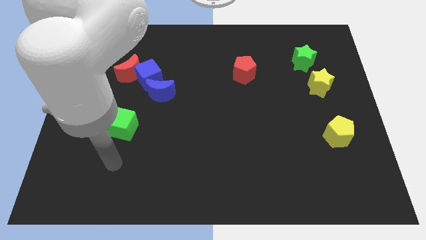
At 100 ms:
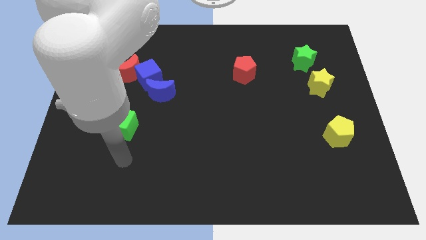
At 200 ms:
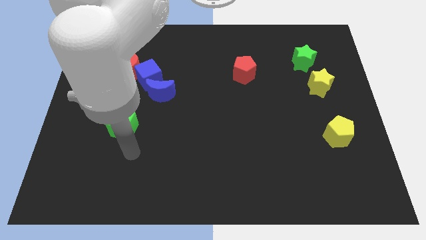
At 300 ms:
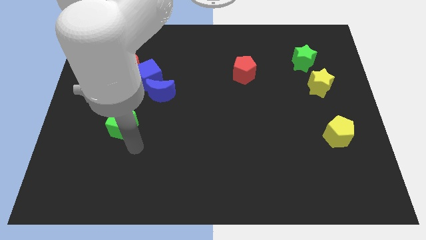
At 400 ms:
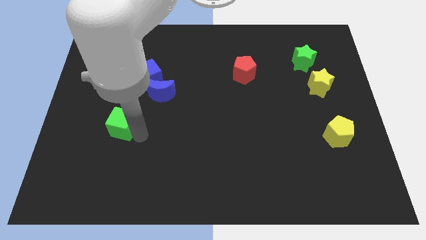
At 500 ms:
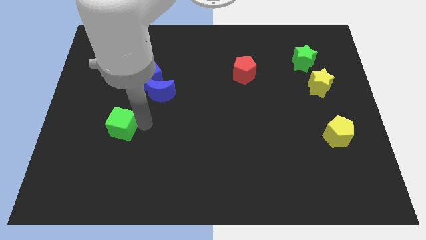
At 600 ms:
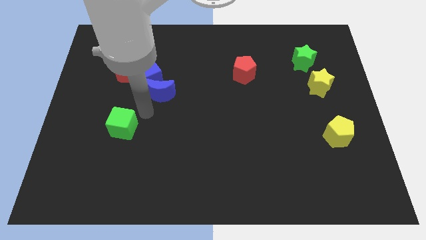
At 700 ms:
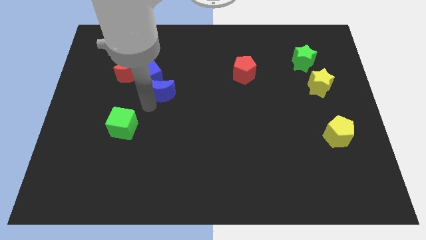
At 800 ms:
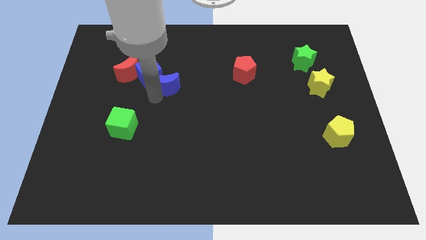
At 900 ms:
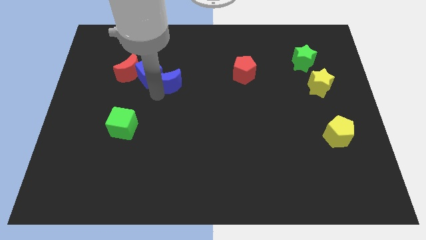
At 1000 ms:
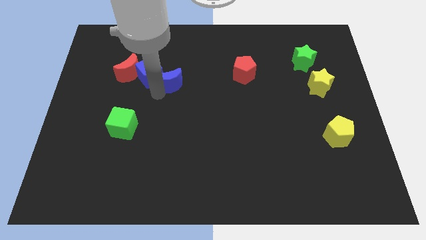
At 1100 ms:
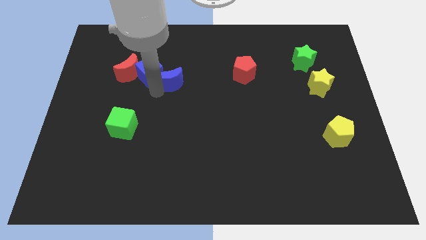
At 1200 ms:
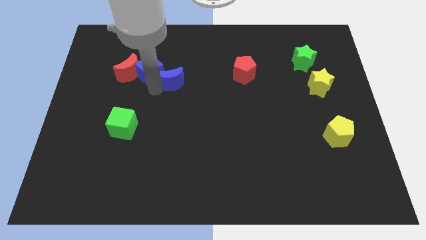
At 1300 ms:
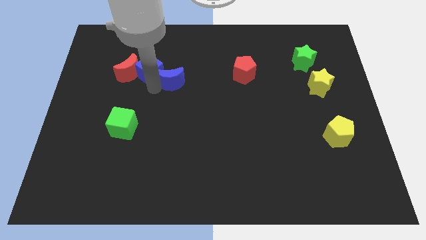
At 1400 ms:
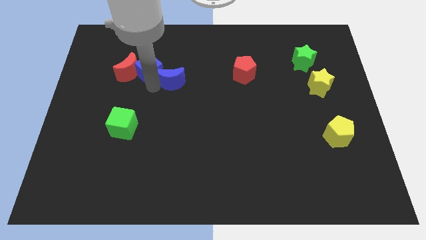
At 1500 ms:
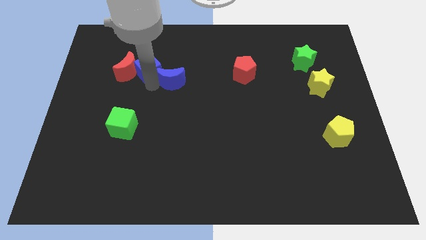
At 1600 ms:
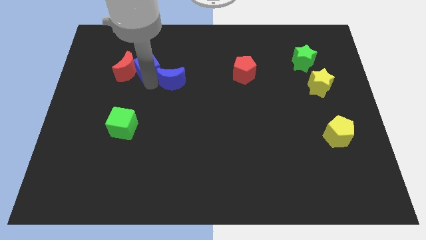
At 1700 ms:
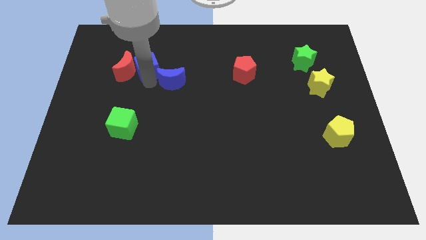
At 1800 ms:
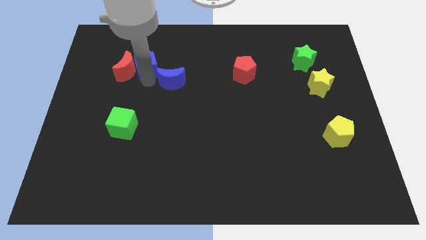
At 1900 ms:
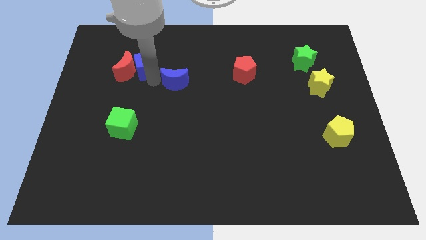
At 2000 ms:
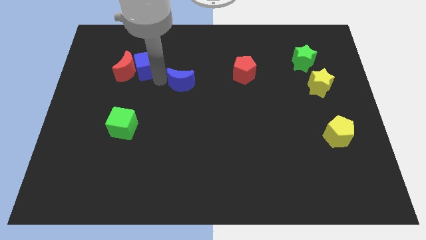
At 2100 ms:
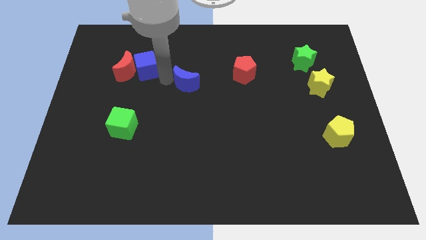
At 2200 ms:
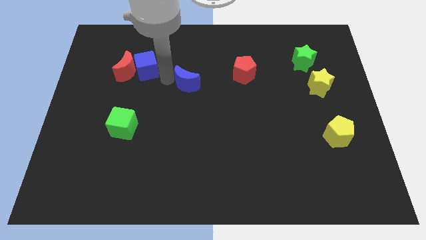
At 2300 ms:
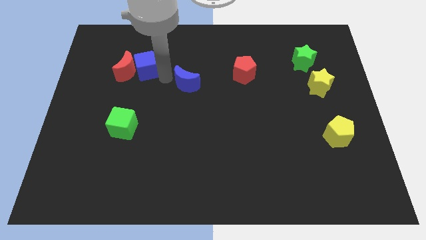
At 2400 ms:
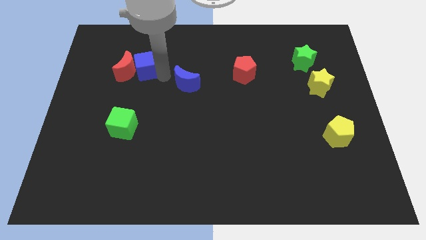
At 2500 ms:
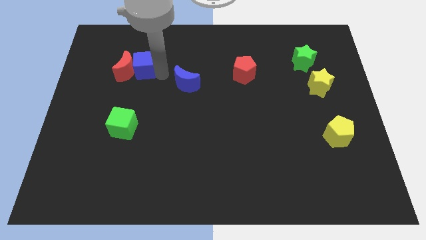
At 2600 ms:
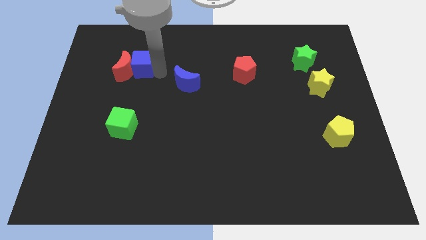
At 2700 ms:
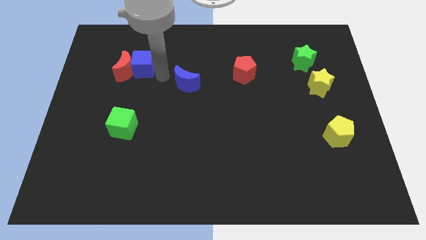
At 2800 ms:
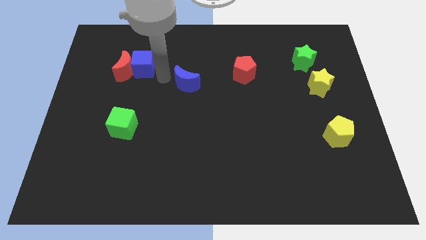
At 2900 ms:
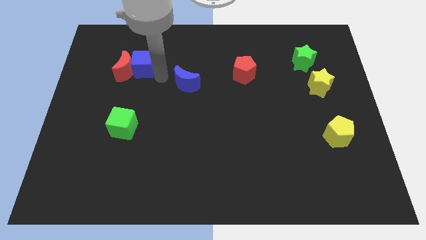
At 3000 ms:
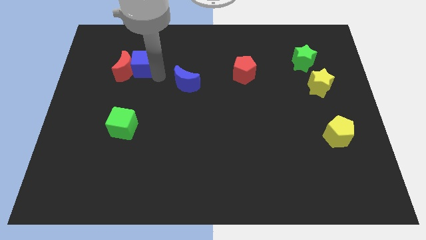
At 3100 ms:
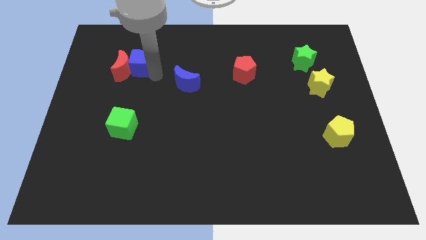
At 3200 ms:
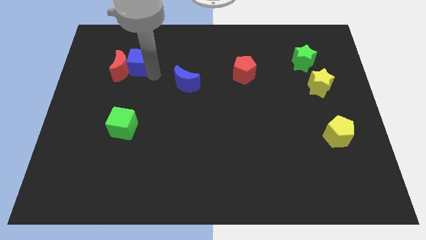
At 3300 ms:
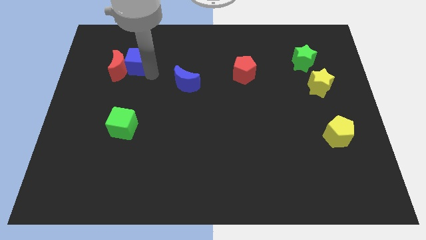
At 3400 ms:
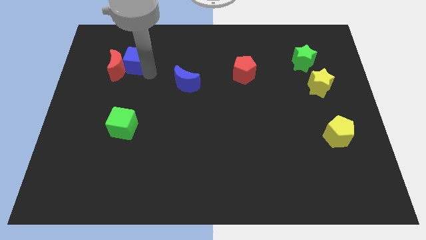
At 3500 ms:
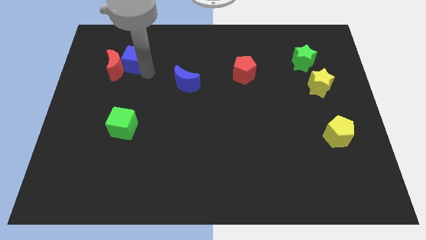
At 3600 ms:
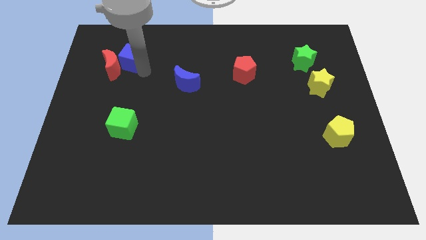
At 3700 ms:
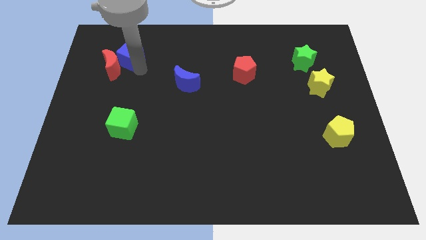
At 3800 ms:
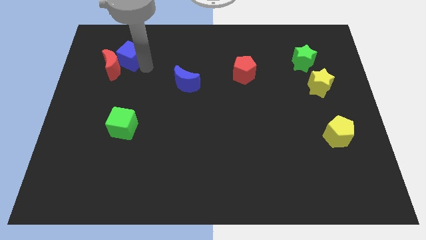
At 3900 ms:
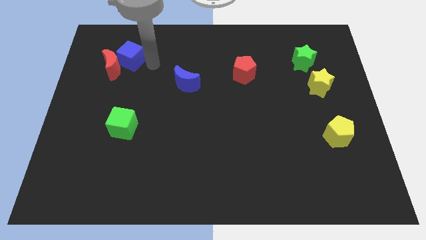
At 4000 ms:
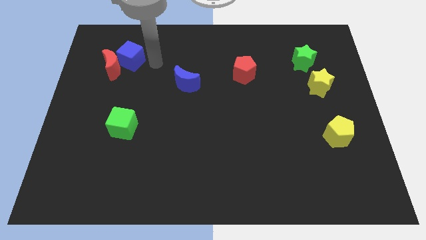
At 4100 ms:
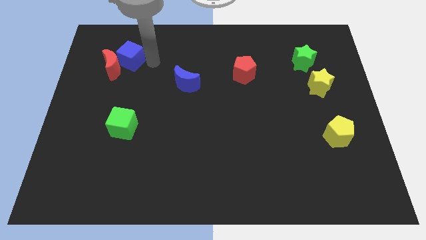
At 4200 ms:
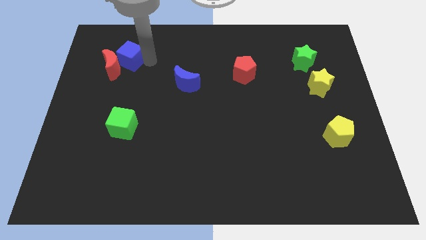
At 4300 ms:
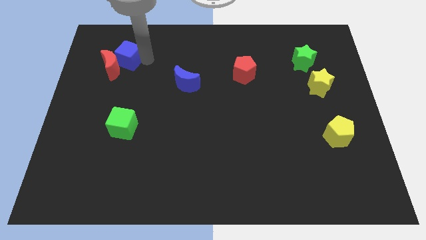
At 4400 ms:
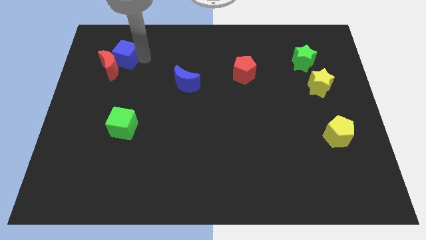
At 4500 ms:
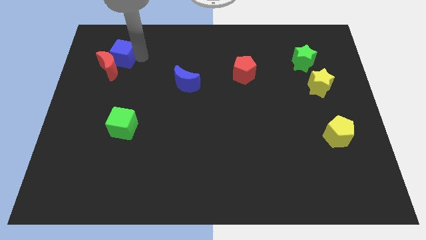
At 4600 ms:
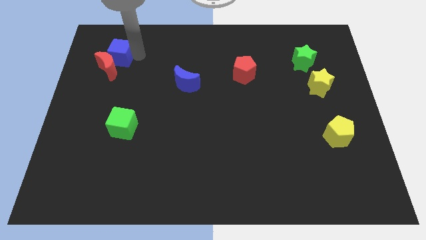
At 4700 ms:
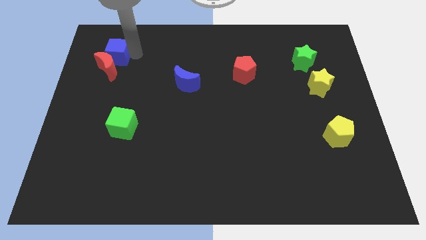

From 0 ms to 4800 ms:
push the blue cube to the top left of the red moon

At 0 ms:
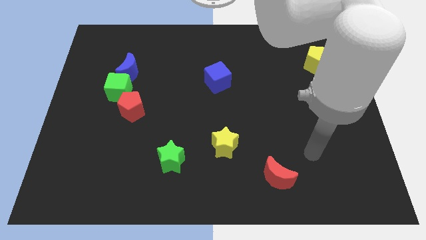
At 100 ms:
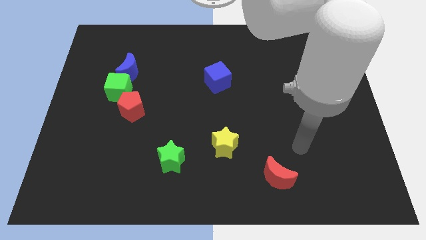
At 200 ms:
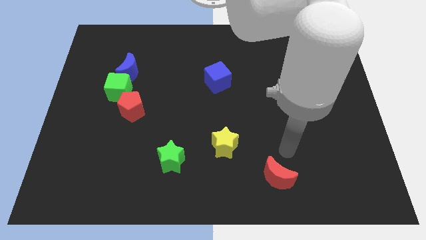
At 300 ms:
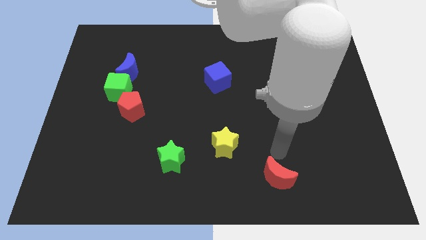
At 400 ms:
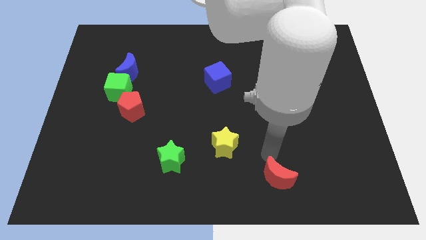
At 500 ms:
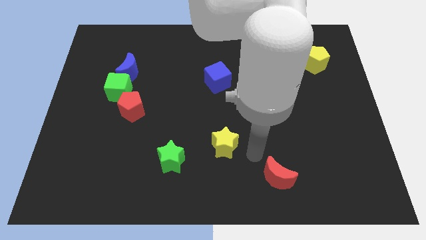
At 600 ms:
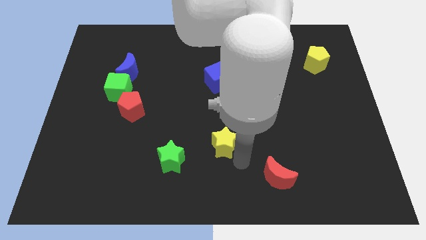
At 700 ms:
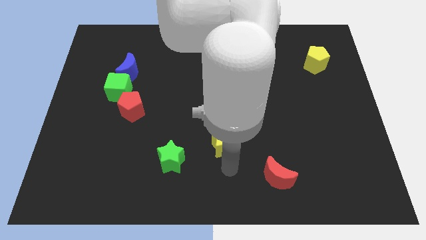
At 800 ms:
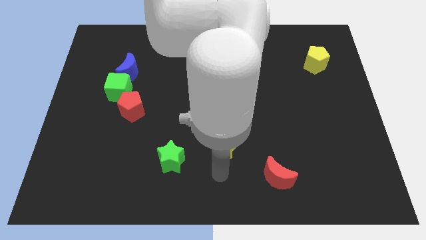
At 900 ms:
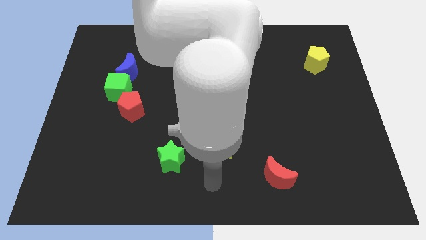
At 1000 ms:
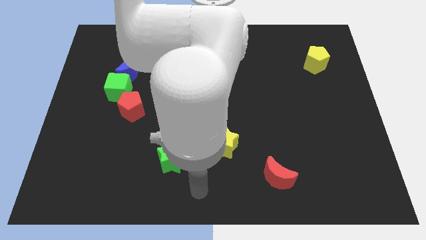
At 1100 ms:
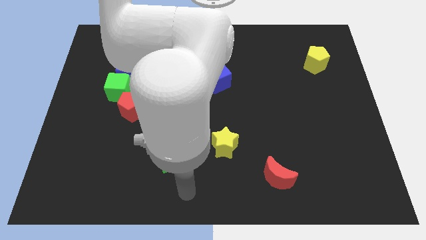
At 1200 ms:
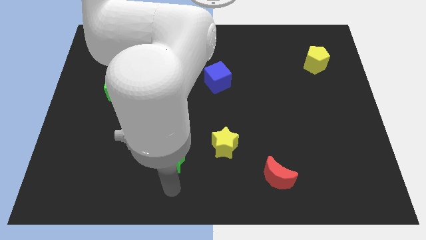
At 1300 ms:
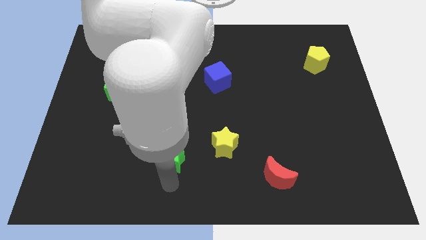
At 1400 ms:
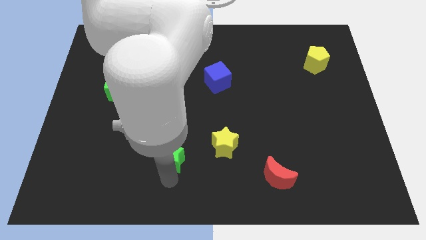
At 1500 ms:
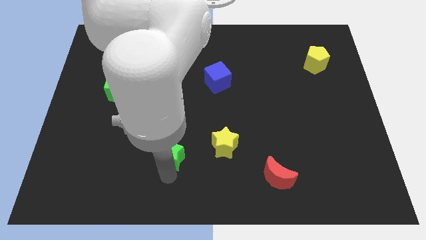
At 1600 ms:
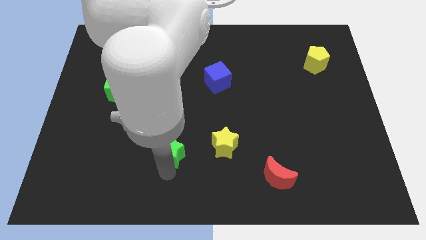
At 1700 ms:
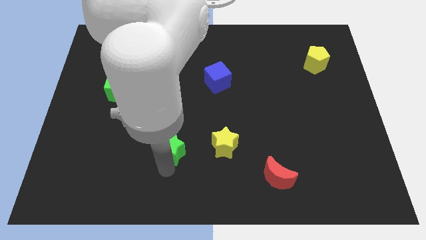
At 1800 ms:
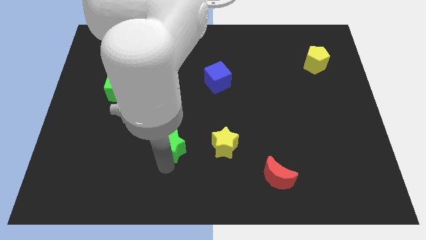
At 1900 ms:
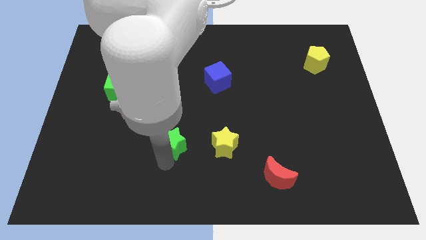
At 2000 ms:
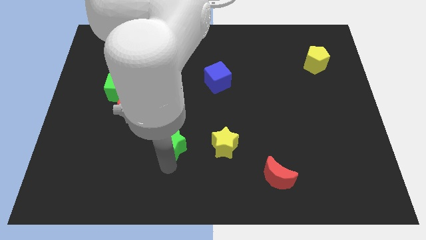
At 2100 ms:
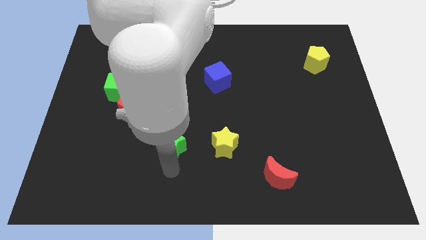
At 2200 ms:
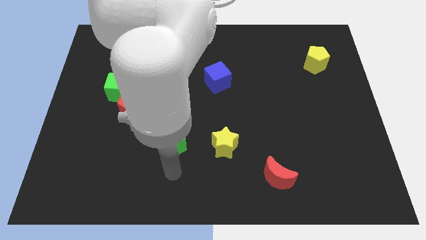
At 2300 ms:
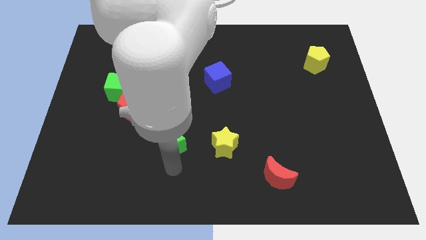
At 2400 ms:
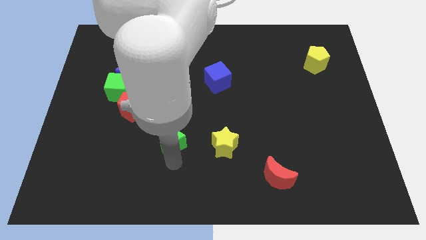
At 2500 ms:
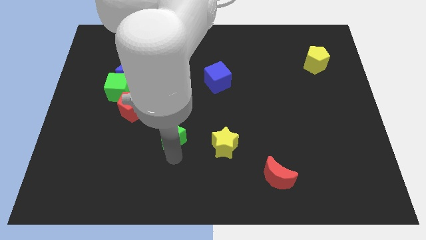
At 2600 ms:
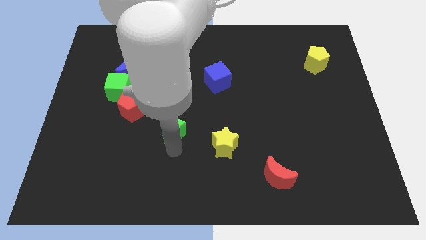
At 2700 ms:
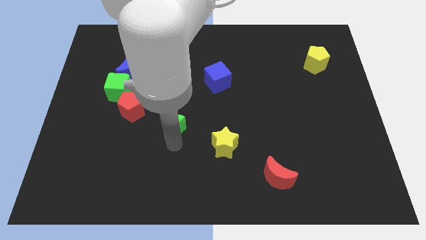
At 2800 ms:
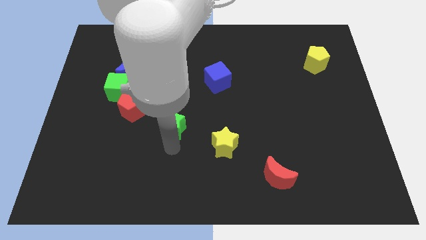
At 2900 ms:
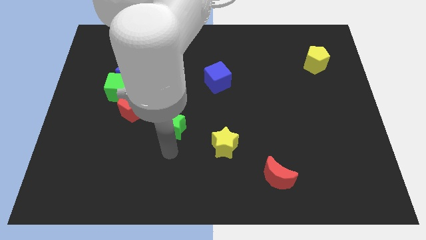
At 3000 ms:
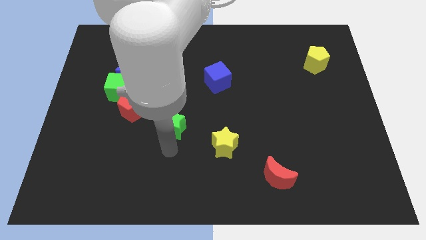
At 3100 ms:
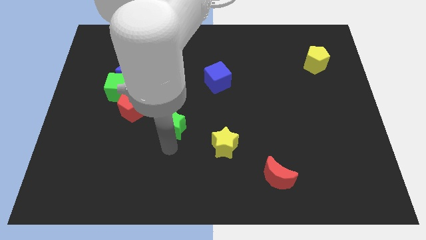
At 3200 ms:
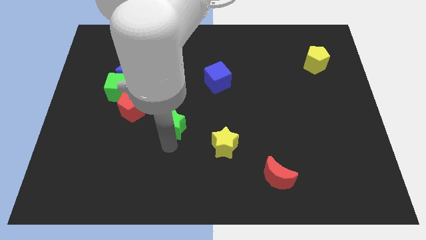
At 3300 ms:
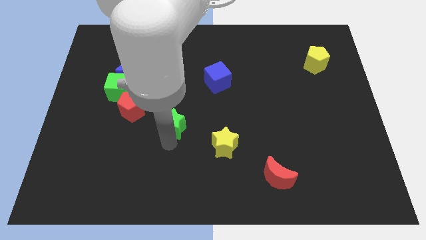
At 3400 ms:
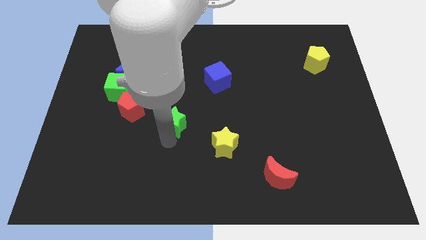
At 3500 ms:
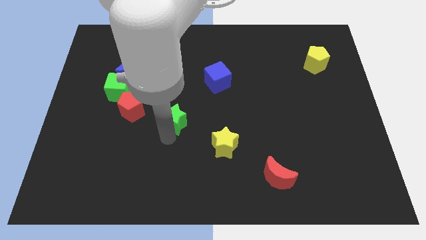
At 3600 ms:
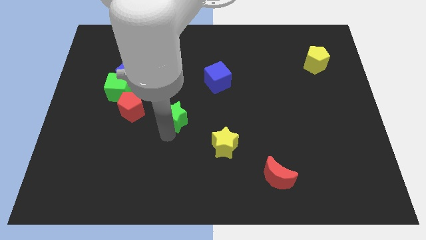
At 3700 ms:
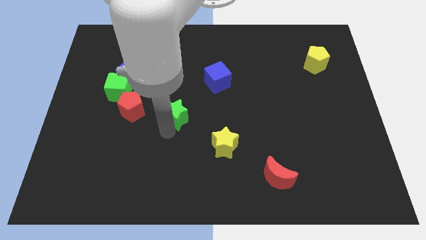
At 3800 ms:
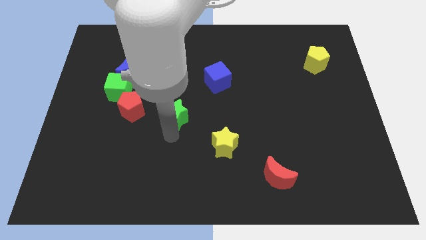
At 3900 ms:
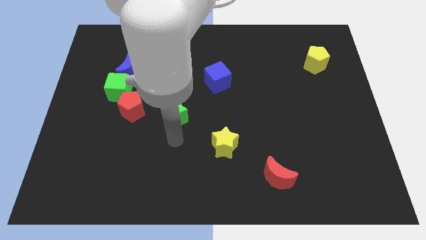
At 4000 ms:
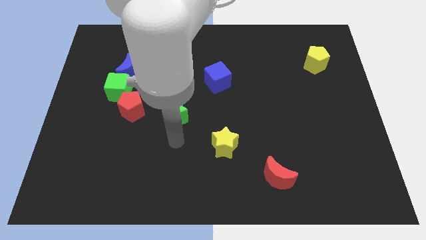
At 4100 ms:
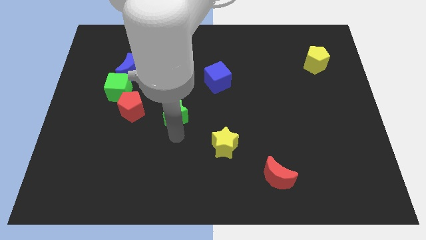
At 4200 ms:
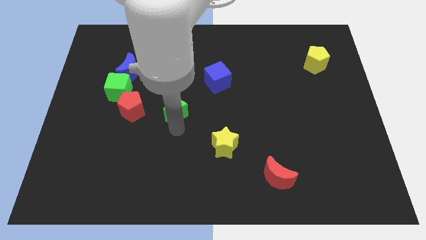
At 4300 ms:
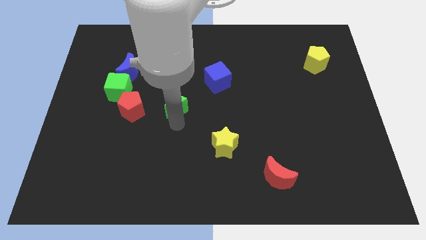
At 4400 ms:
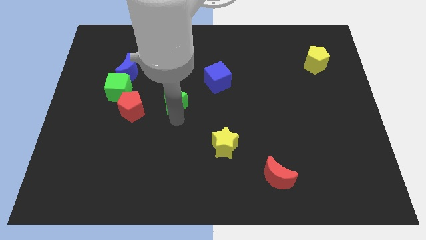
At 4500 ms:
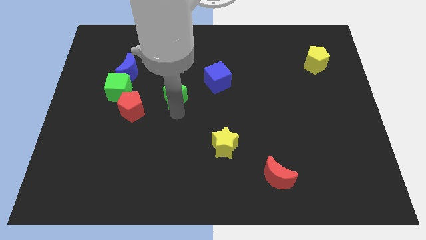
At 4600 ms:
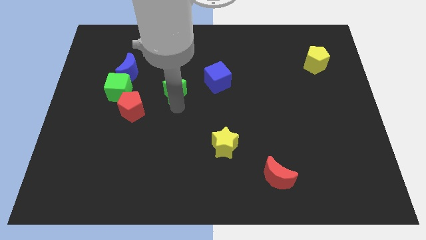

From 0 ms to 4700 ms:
slide the green star just left of the blue cube
